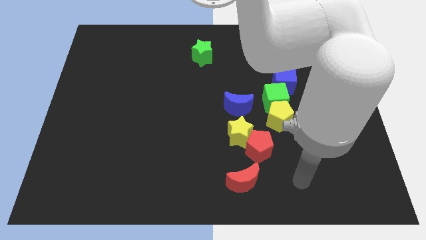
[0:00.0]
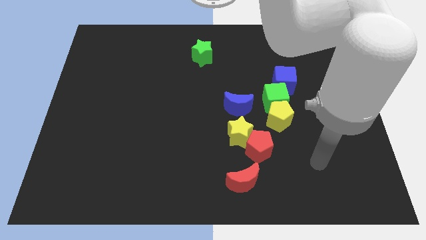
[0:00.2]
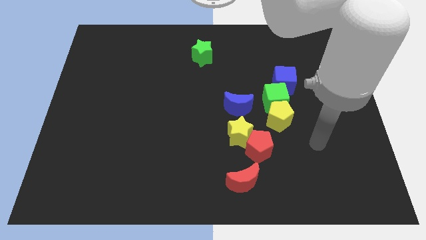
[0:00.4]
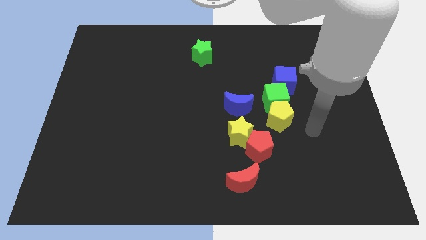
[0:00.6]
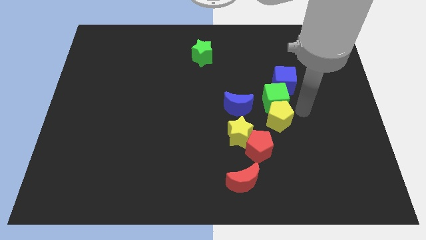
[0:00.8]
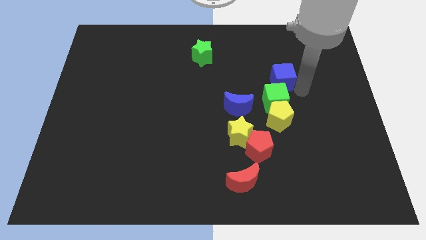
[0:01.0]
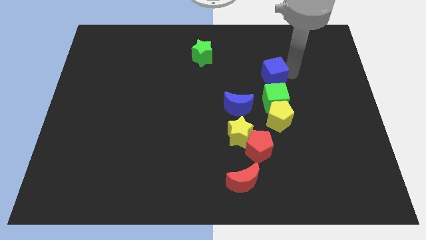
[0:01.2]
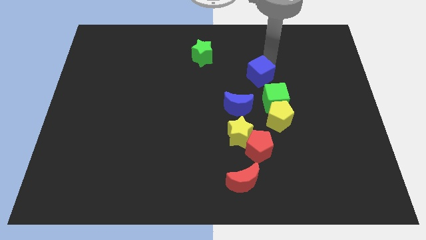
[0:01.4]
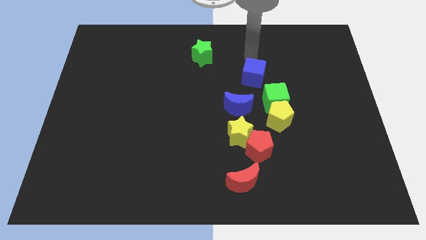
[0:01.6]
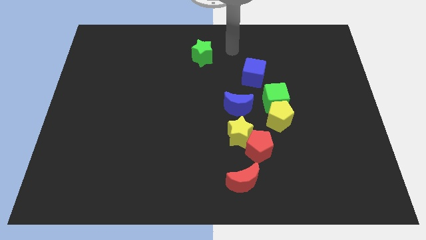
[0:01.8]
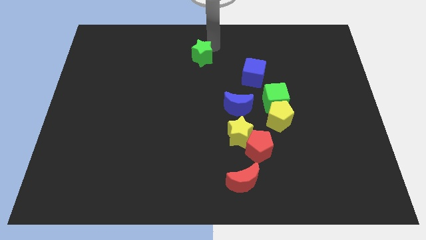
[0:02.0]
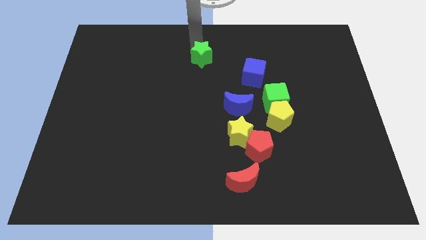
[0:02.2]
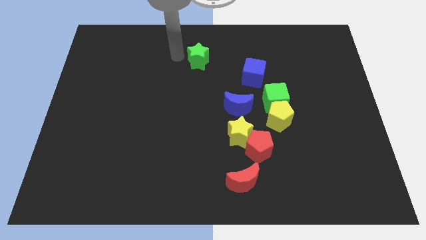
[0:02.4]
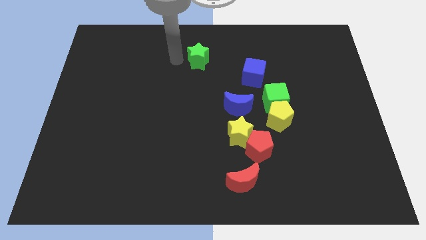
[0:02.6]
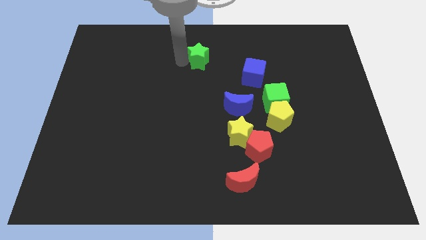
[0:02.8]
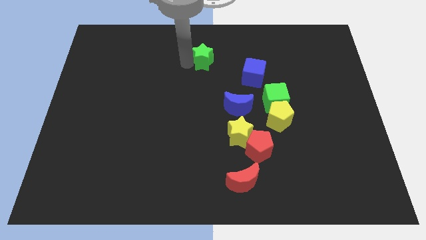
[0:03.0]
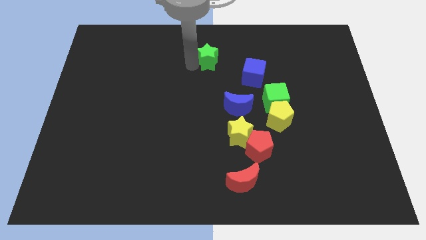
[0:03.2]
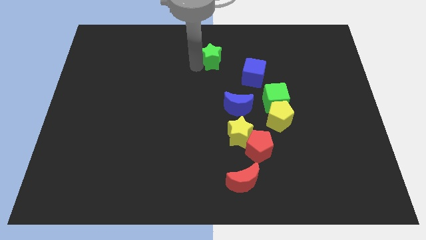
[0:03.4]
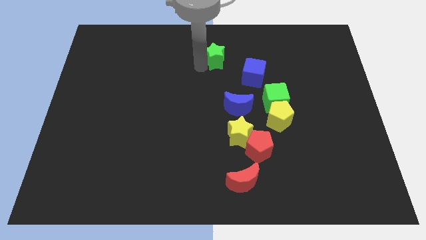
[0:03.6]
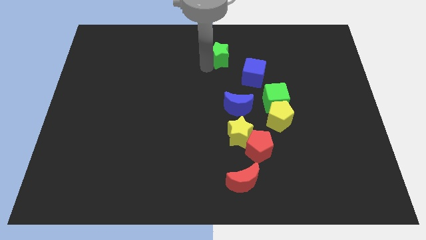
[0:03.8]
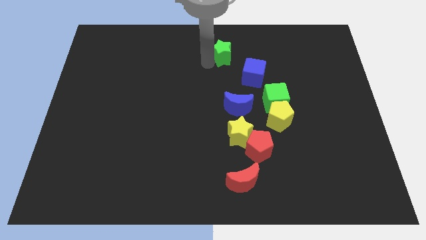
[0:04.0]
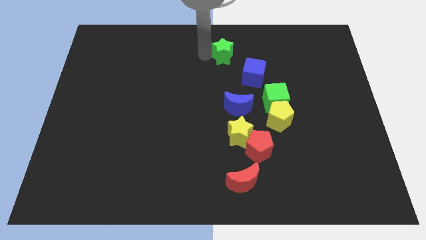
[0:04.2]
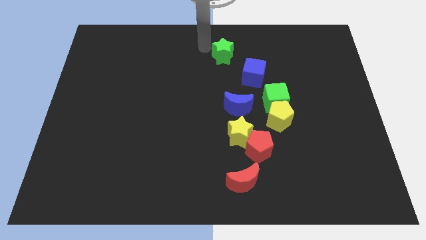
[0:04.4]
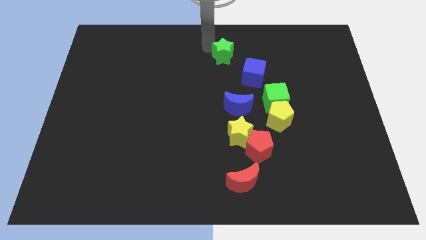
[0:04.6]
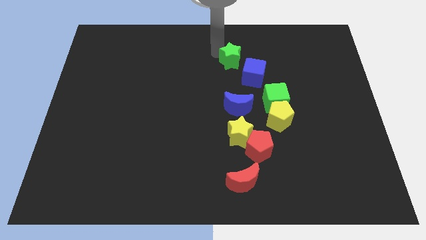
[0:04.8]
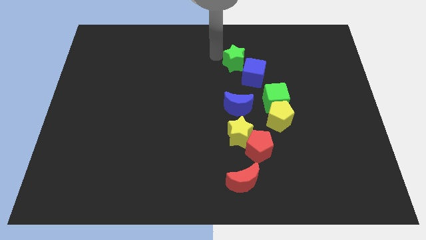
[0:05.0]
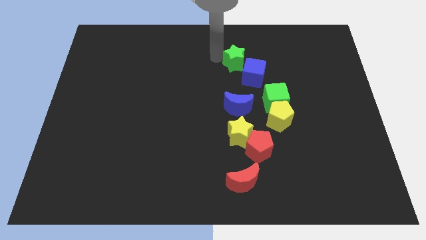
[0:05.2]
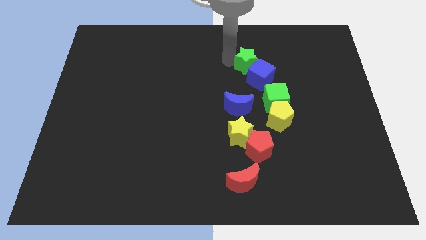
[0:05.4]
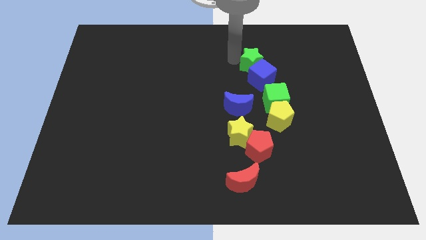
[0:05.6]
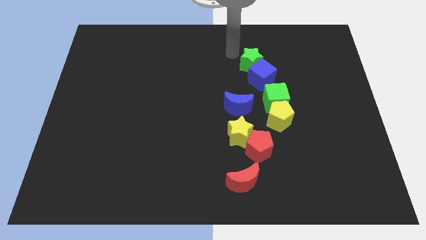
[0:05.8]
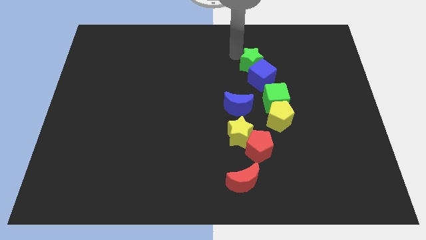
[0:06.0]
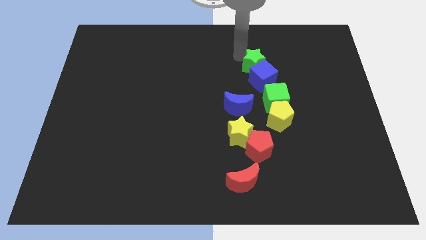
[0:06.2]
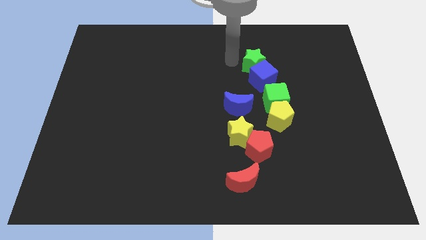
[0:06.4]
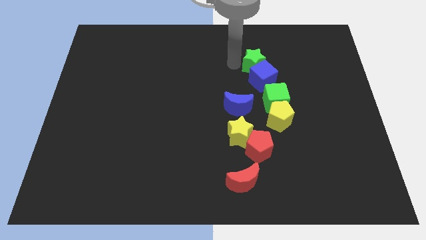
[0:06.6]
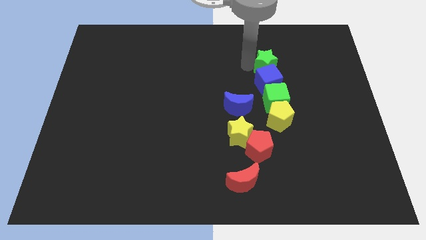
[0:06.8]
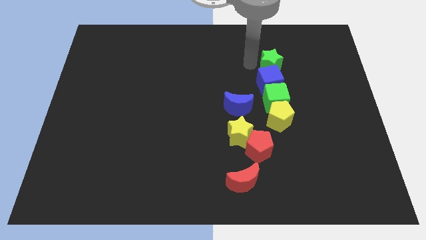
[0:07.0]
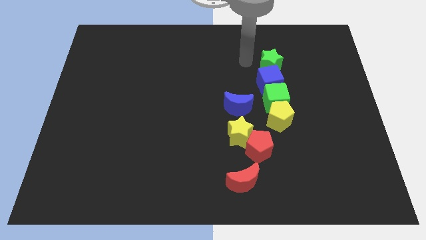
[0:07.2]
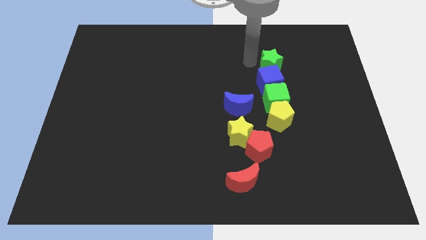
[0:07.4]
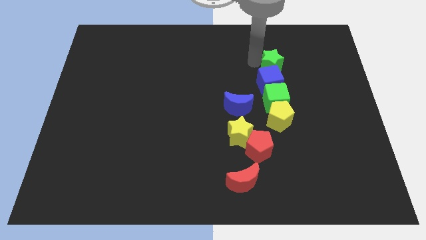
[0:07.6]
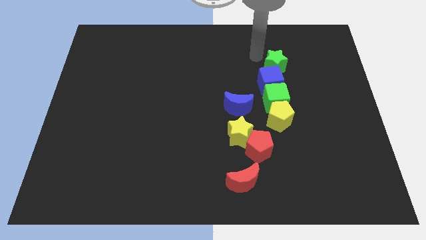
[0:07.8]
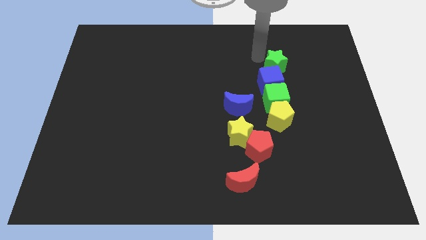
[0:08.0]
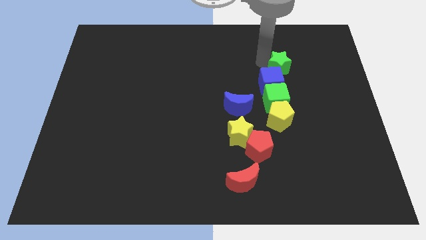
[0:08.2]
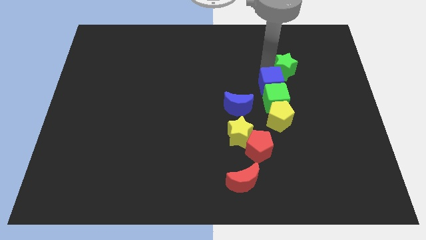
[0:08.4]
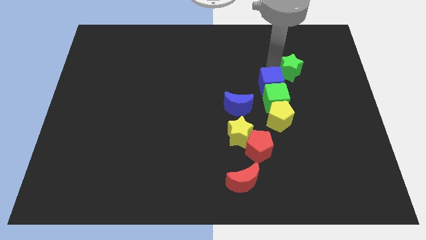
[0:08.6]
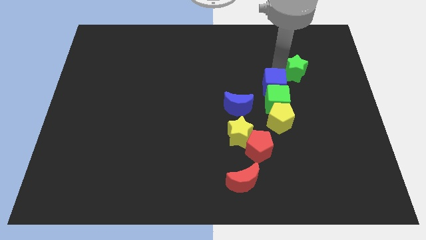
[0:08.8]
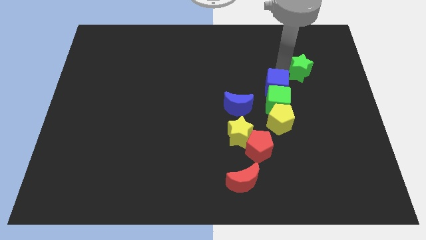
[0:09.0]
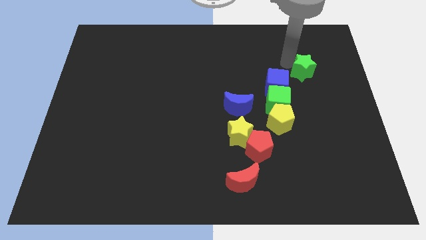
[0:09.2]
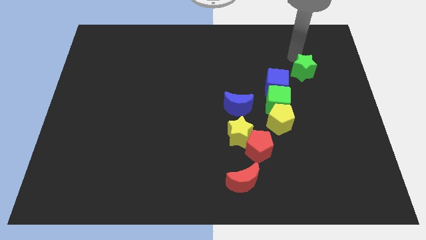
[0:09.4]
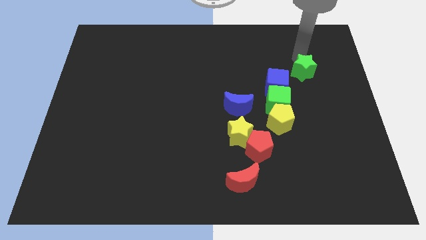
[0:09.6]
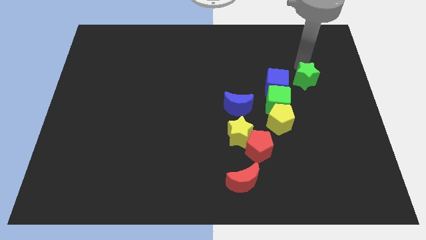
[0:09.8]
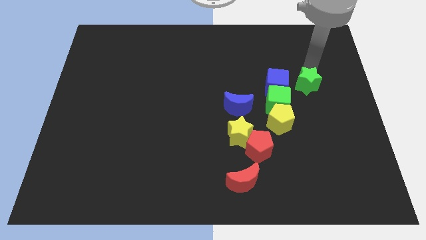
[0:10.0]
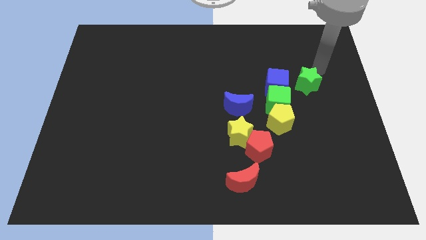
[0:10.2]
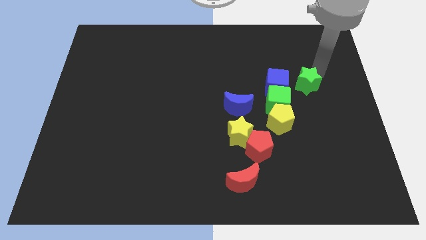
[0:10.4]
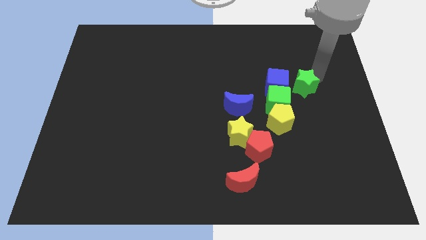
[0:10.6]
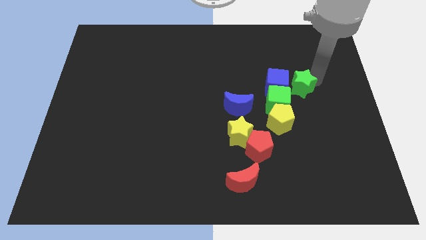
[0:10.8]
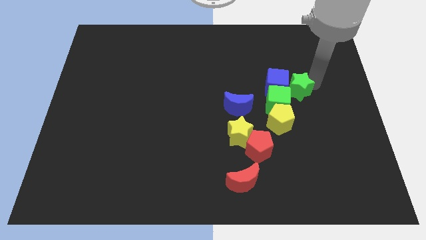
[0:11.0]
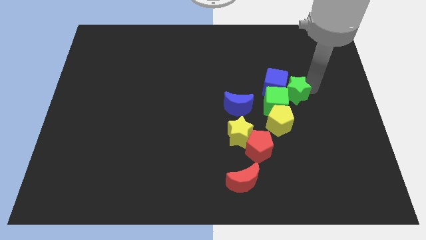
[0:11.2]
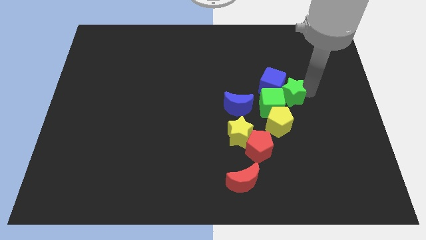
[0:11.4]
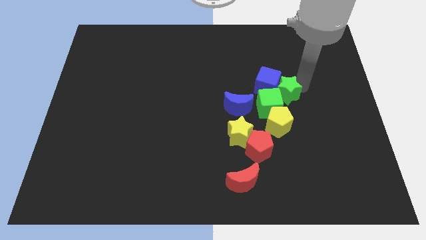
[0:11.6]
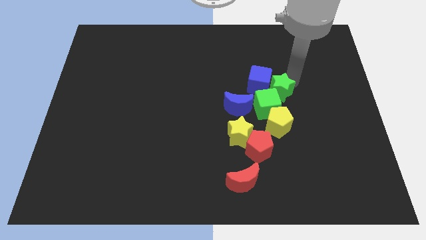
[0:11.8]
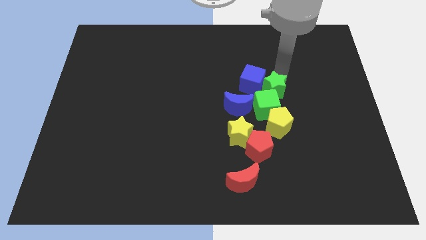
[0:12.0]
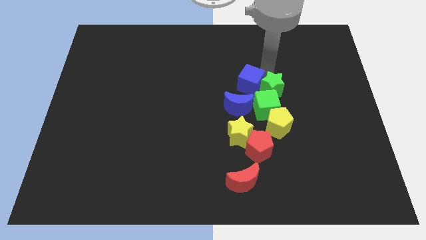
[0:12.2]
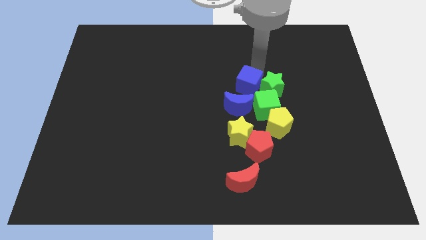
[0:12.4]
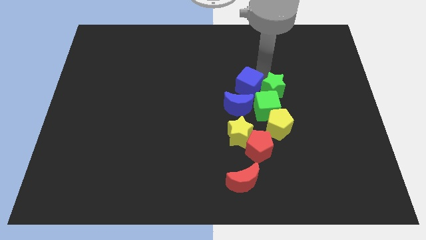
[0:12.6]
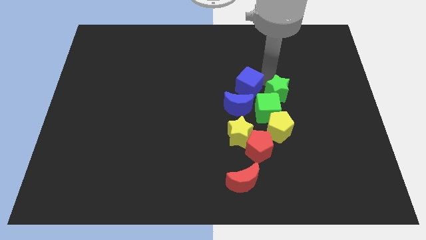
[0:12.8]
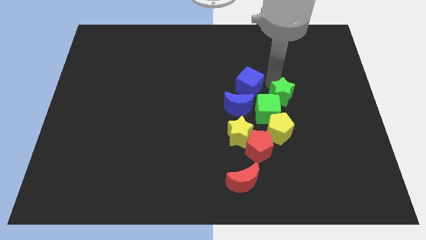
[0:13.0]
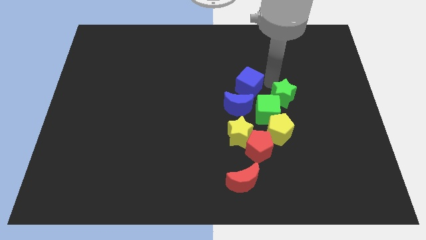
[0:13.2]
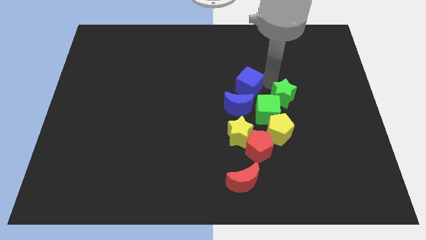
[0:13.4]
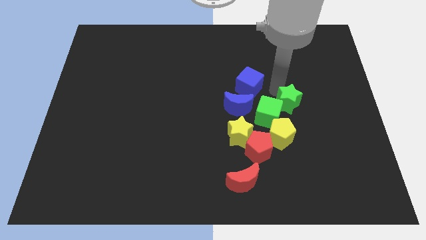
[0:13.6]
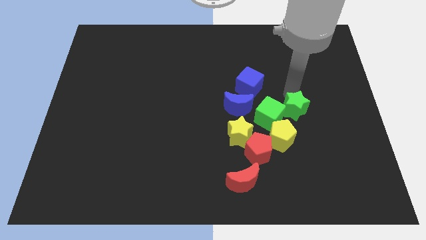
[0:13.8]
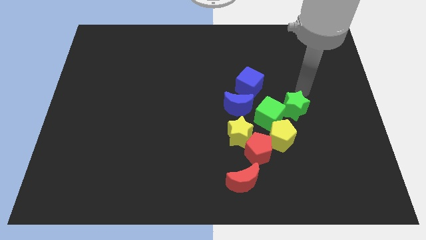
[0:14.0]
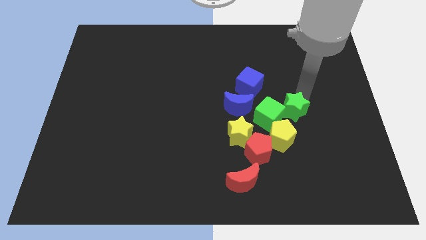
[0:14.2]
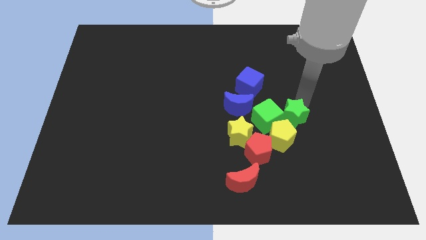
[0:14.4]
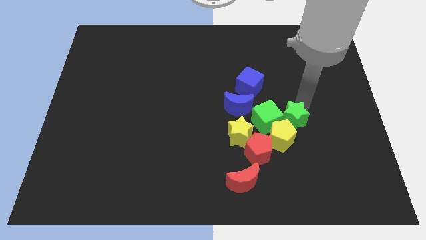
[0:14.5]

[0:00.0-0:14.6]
slide the green star to the yellow pentagon

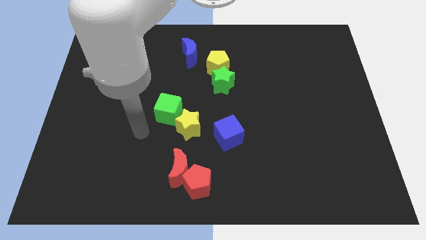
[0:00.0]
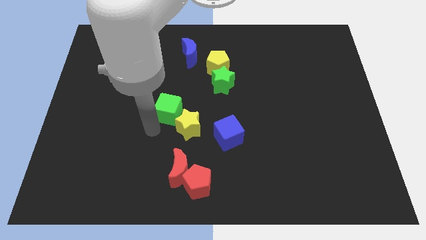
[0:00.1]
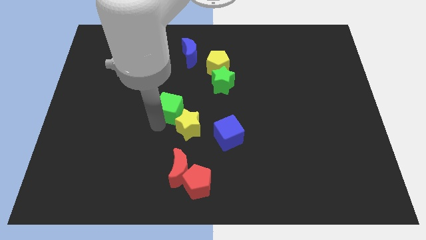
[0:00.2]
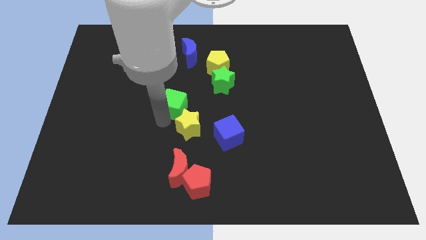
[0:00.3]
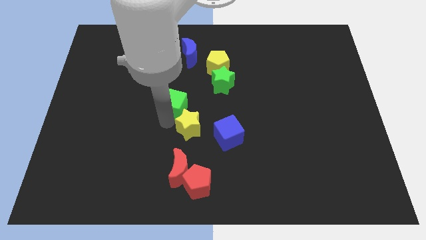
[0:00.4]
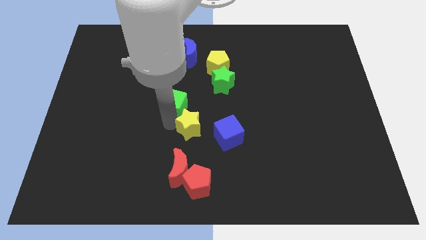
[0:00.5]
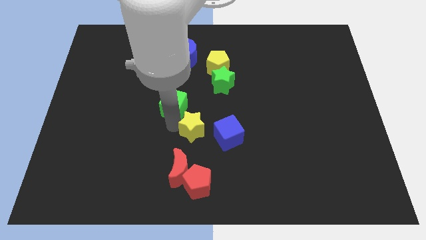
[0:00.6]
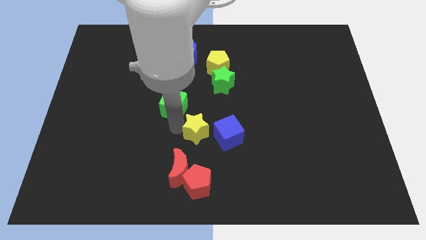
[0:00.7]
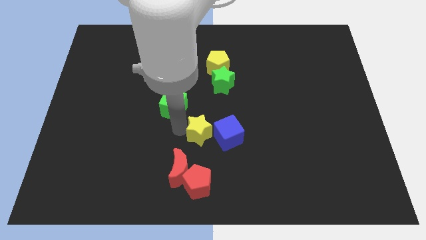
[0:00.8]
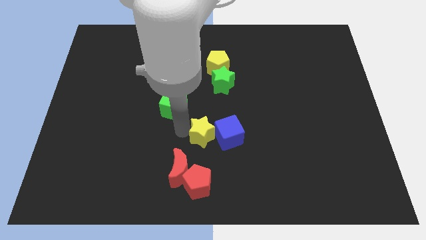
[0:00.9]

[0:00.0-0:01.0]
slide the yellow star next to the blue cube
